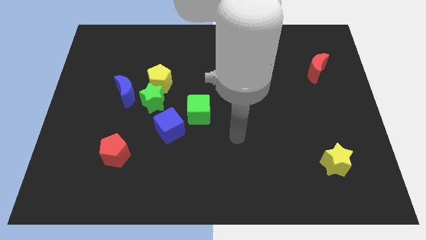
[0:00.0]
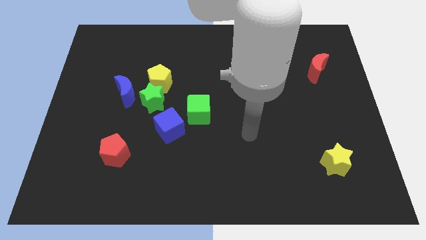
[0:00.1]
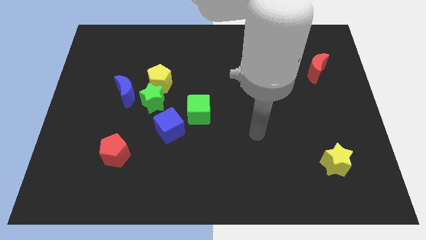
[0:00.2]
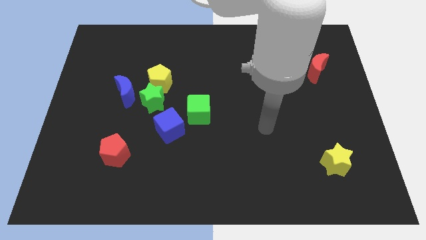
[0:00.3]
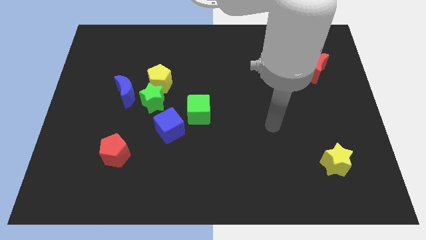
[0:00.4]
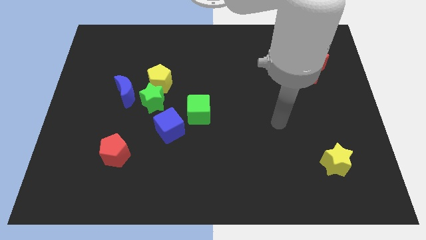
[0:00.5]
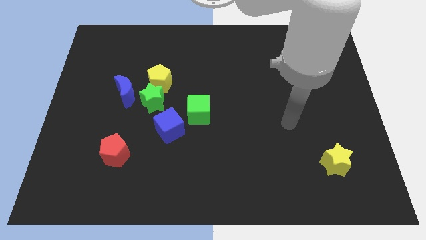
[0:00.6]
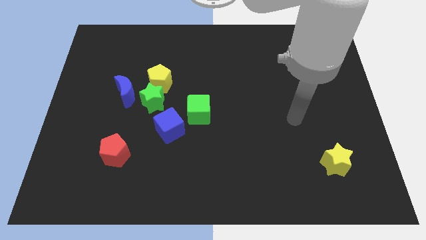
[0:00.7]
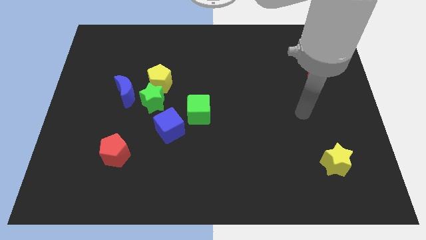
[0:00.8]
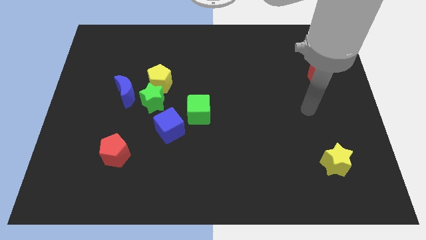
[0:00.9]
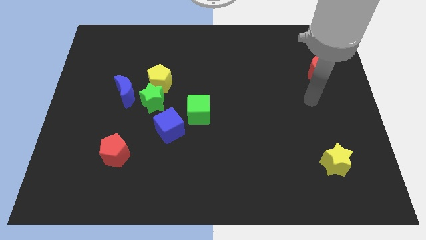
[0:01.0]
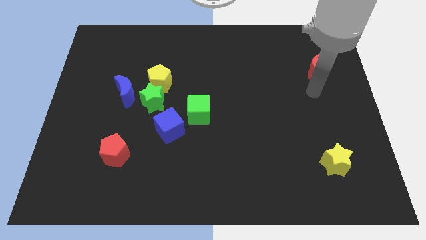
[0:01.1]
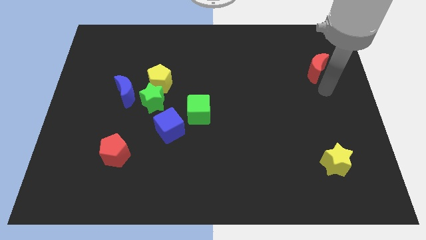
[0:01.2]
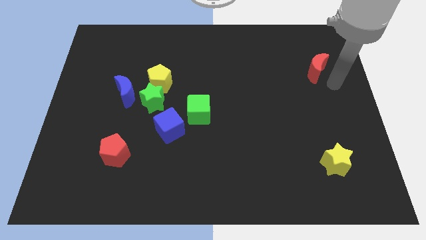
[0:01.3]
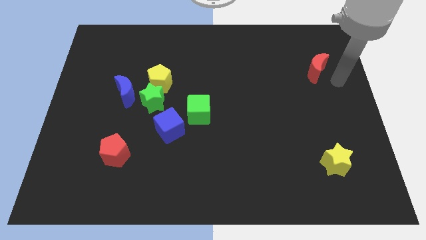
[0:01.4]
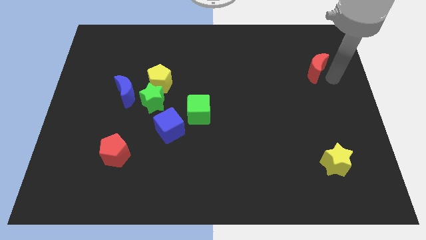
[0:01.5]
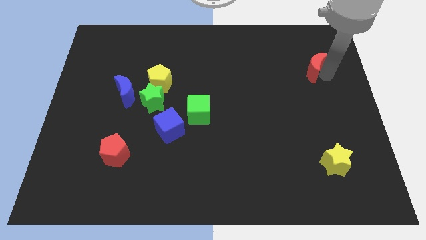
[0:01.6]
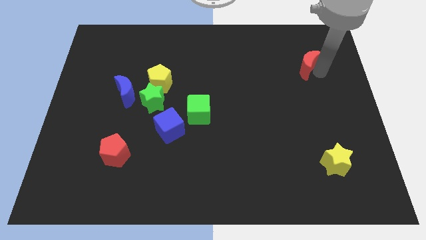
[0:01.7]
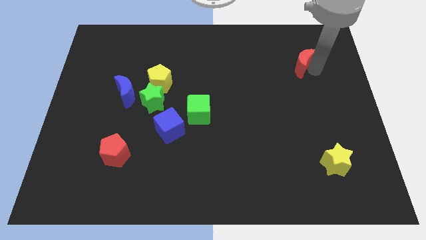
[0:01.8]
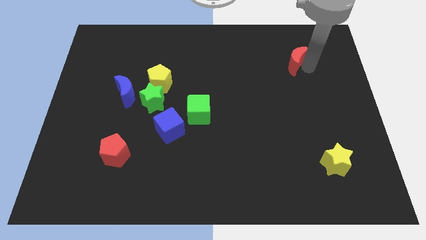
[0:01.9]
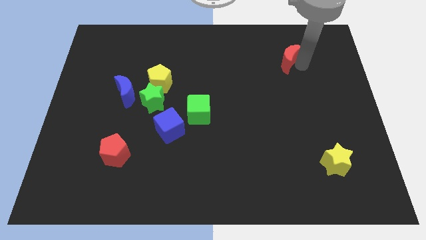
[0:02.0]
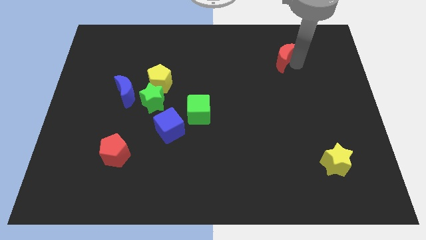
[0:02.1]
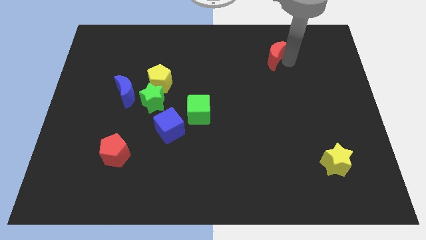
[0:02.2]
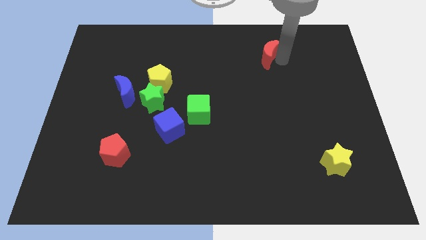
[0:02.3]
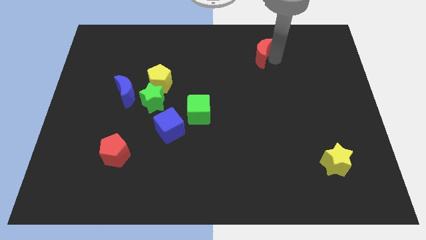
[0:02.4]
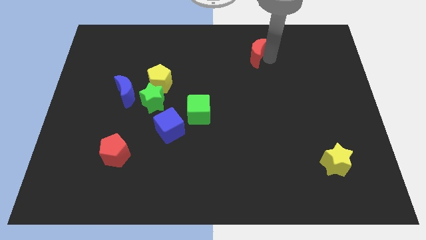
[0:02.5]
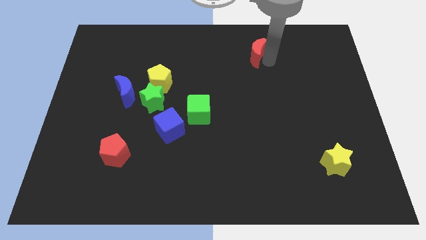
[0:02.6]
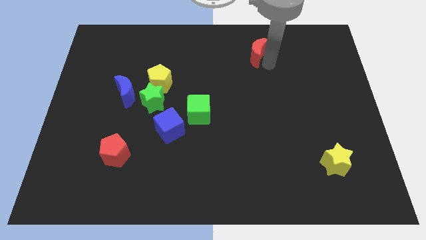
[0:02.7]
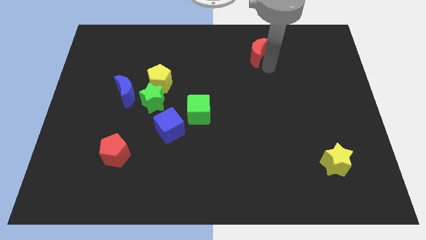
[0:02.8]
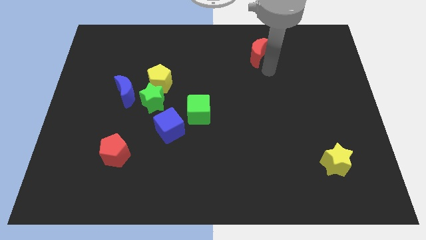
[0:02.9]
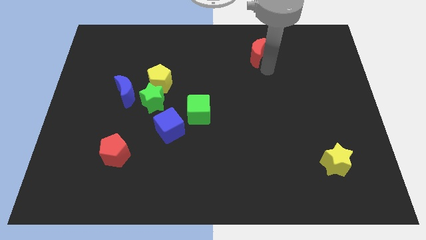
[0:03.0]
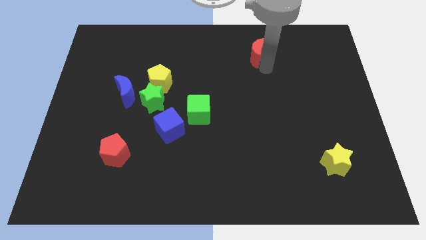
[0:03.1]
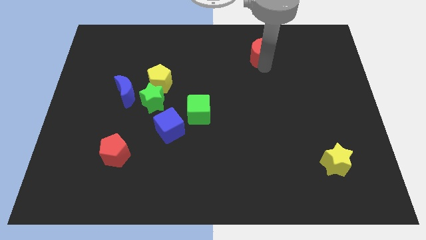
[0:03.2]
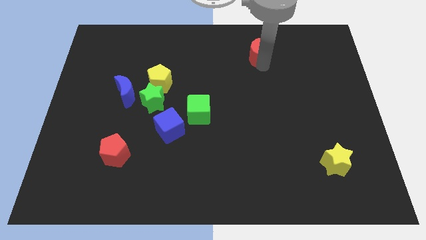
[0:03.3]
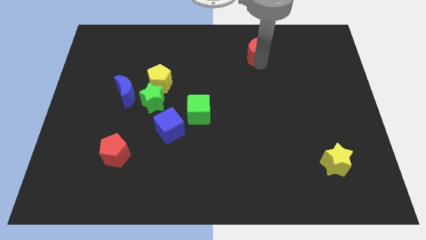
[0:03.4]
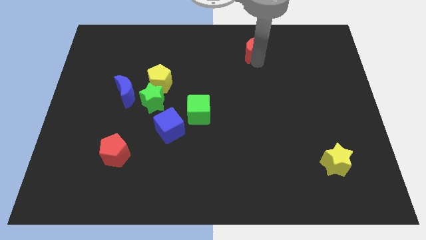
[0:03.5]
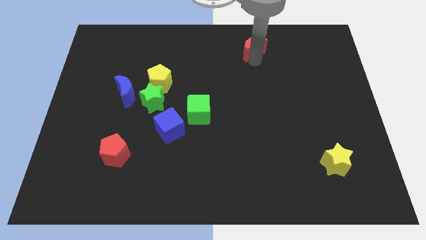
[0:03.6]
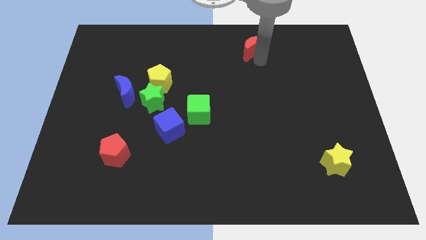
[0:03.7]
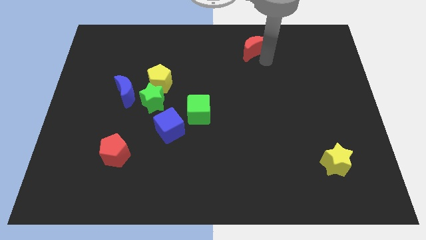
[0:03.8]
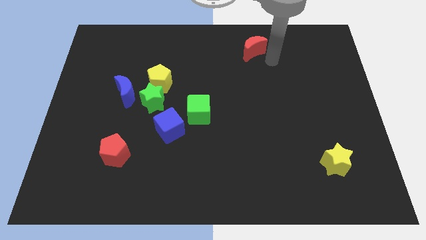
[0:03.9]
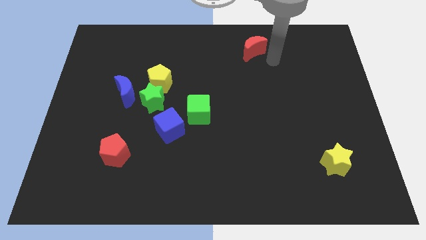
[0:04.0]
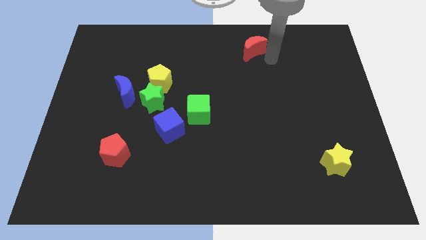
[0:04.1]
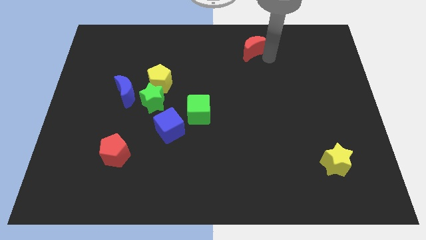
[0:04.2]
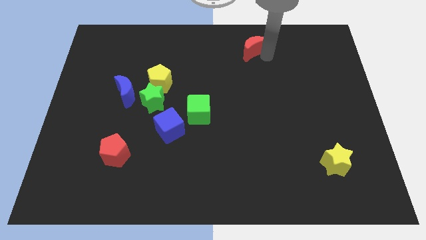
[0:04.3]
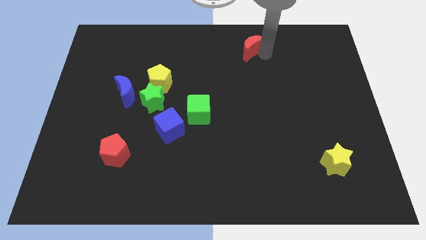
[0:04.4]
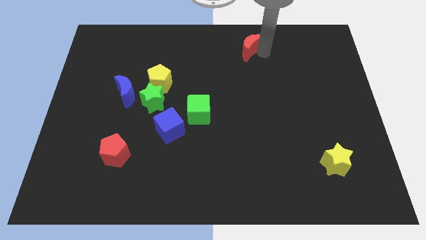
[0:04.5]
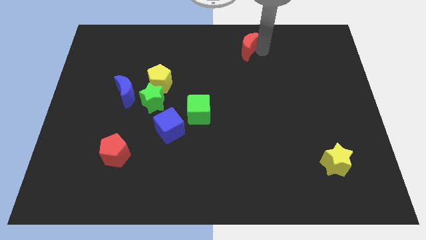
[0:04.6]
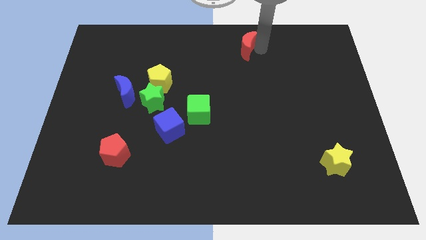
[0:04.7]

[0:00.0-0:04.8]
slide the red moon to the top

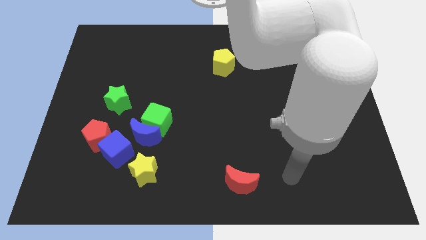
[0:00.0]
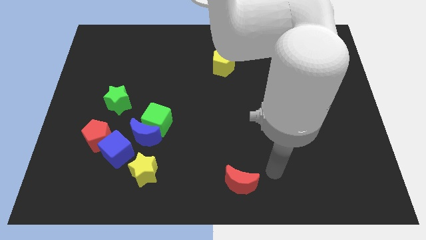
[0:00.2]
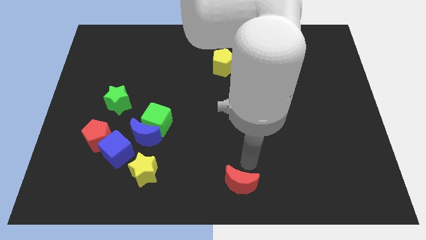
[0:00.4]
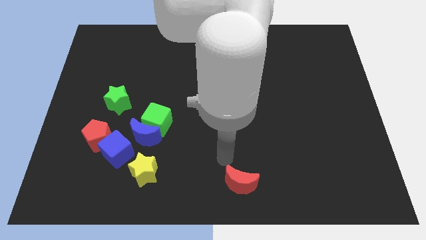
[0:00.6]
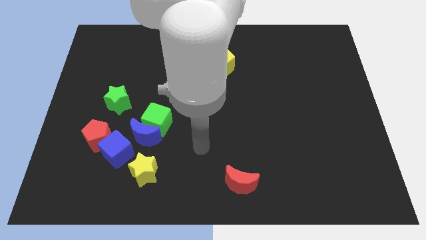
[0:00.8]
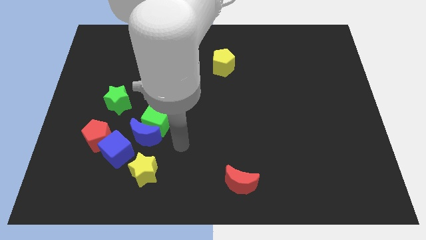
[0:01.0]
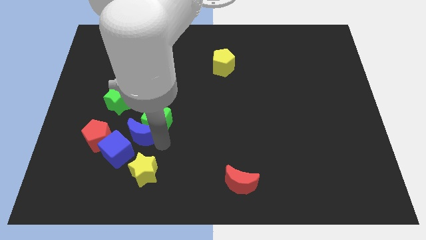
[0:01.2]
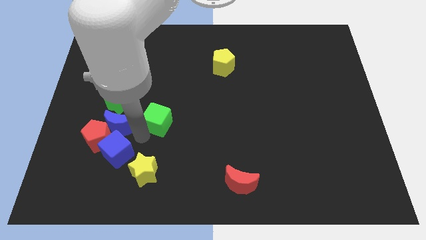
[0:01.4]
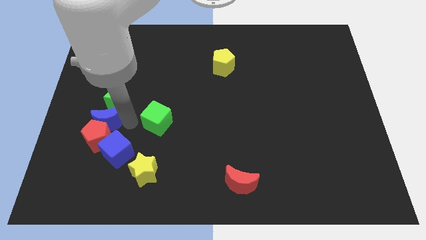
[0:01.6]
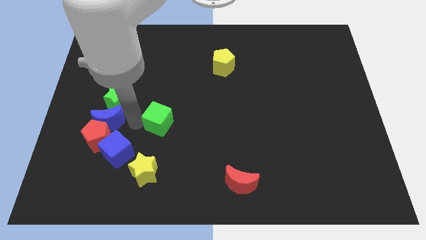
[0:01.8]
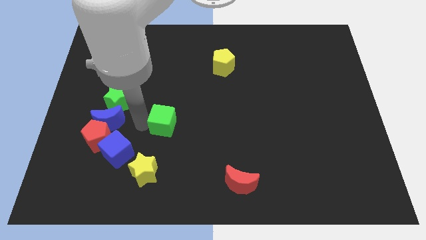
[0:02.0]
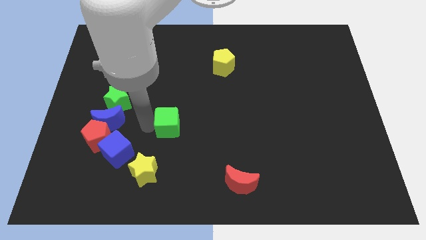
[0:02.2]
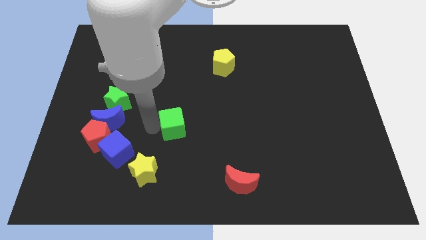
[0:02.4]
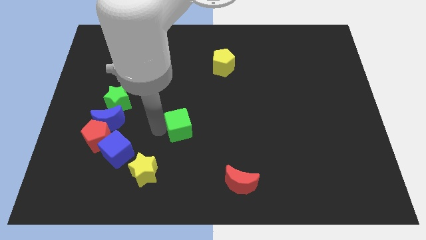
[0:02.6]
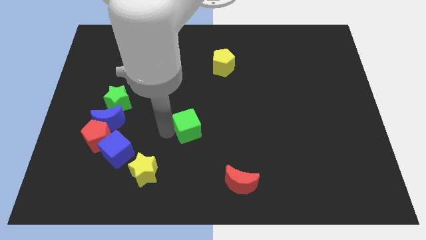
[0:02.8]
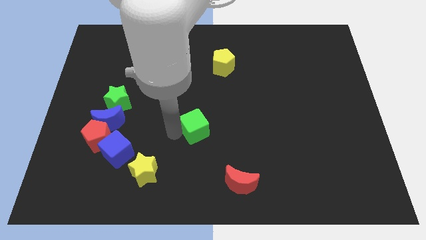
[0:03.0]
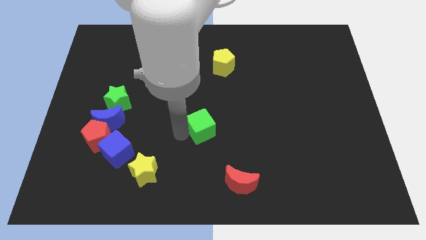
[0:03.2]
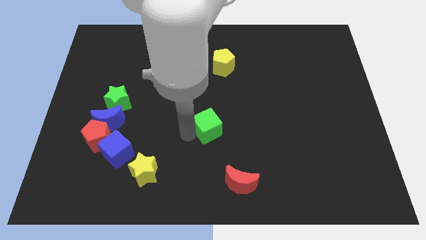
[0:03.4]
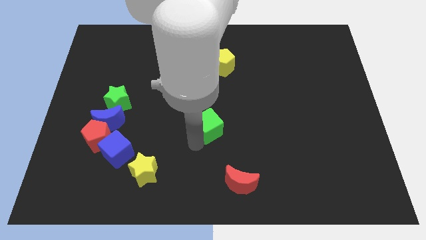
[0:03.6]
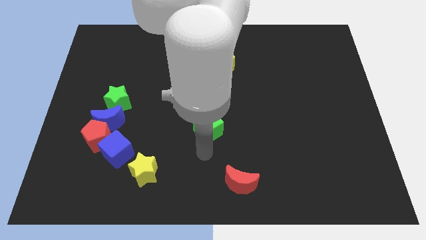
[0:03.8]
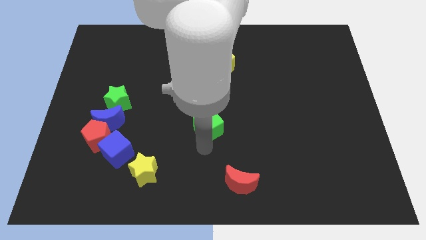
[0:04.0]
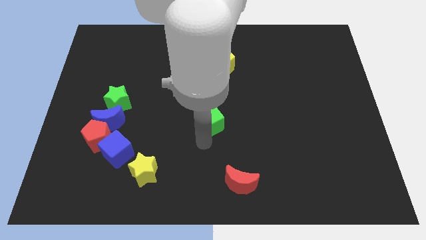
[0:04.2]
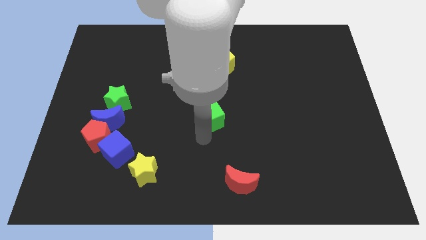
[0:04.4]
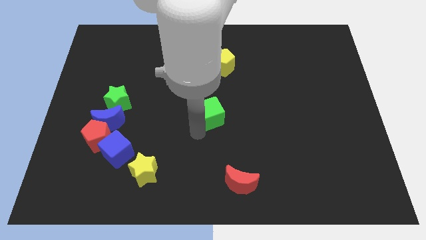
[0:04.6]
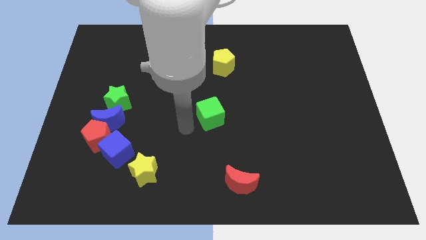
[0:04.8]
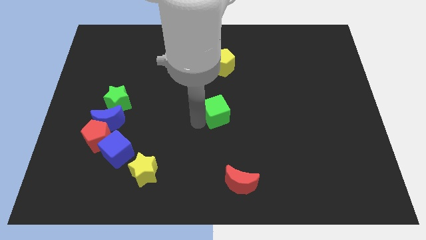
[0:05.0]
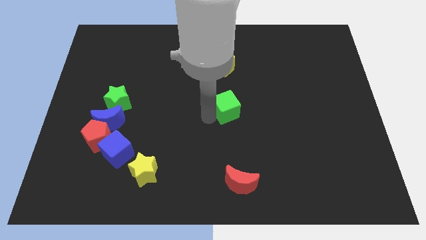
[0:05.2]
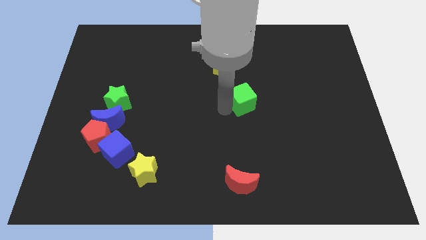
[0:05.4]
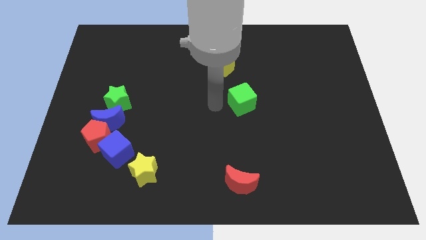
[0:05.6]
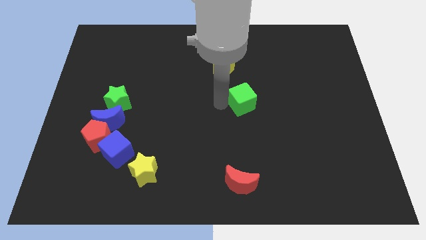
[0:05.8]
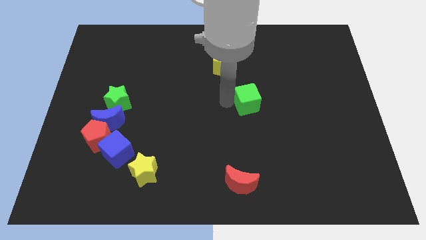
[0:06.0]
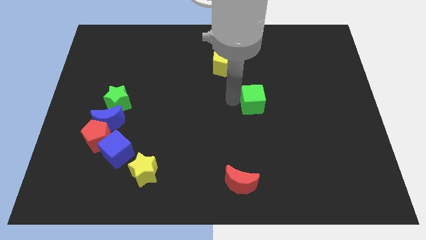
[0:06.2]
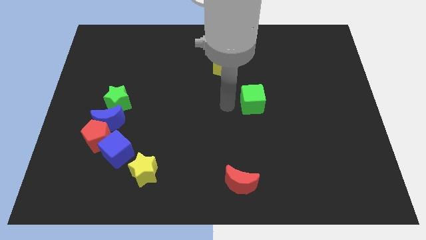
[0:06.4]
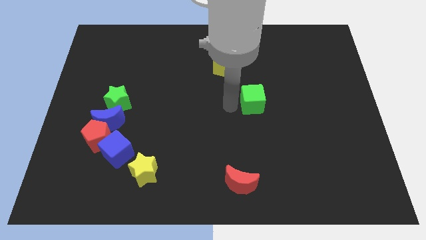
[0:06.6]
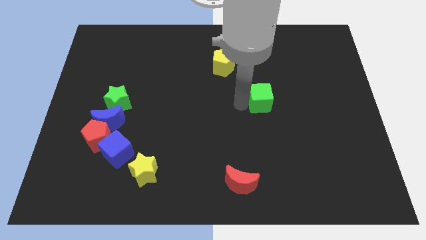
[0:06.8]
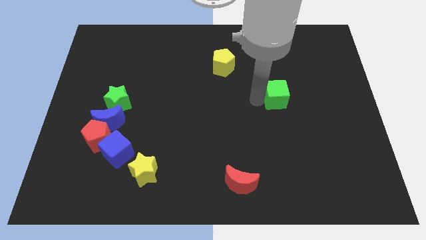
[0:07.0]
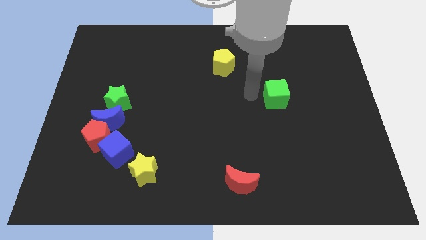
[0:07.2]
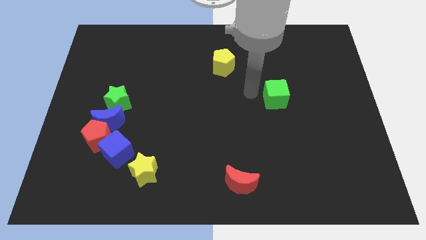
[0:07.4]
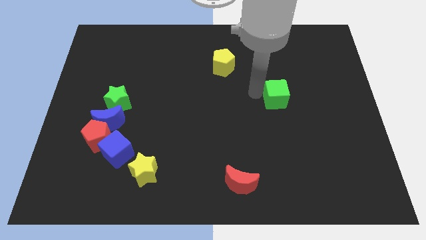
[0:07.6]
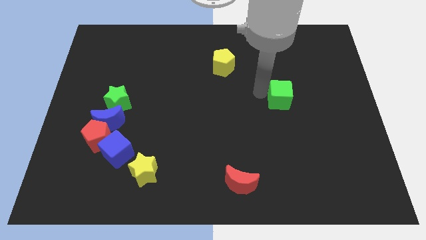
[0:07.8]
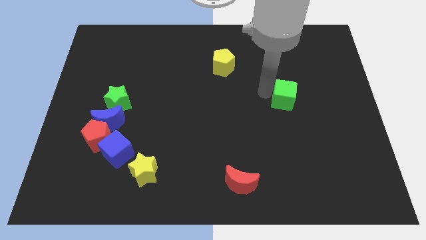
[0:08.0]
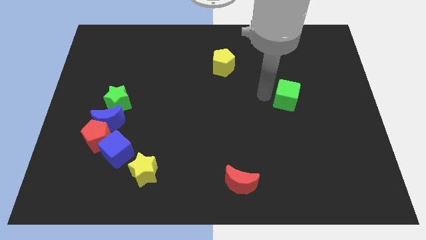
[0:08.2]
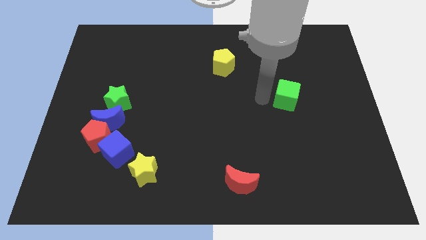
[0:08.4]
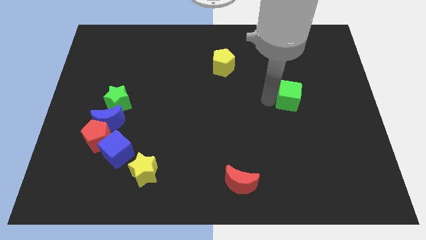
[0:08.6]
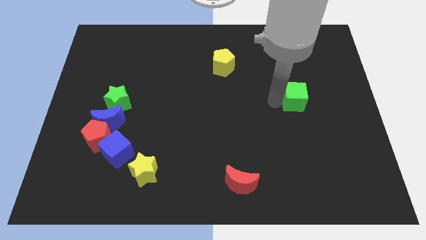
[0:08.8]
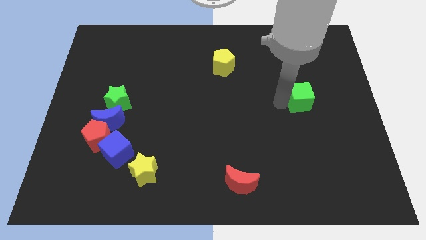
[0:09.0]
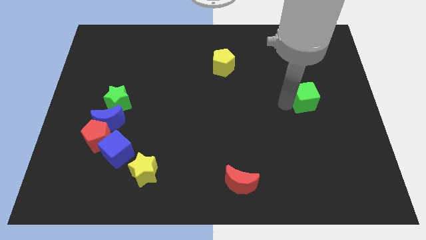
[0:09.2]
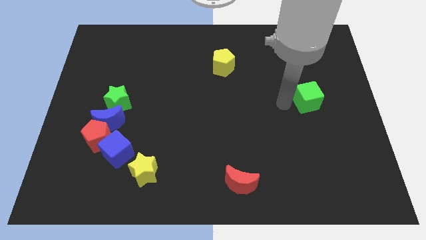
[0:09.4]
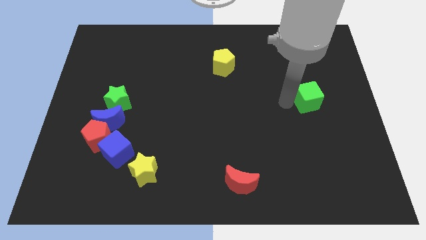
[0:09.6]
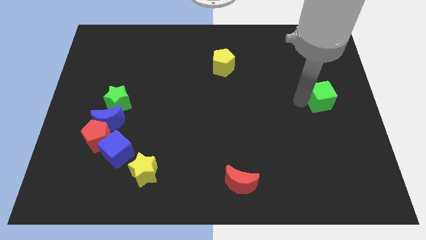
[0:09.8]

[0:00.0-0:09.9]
put the green cube to the right side
